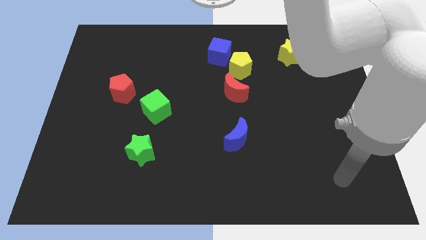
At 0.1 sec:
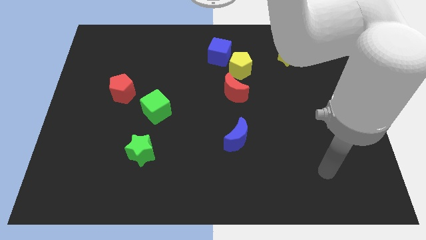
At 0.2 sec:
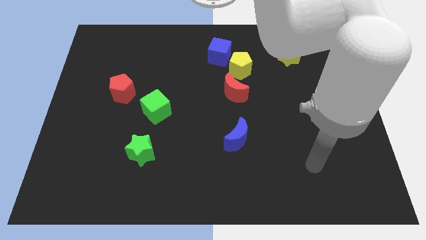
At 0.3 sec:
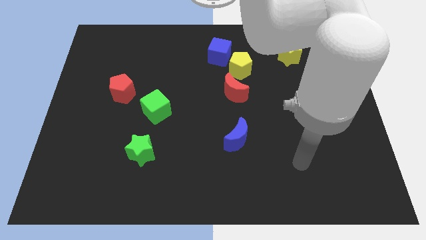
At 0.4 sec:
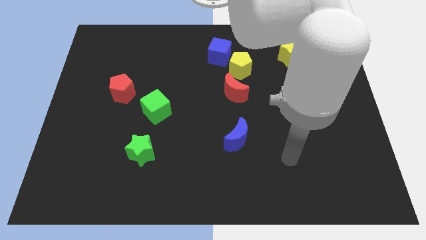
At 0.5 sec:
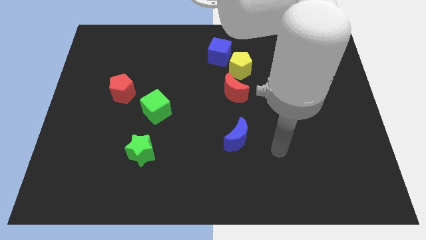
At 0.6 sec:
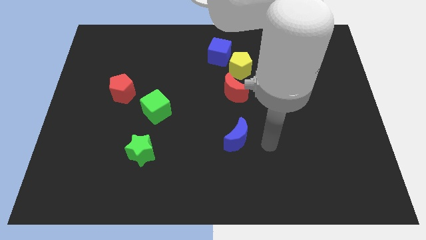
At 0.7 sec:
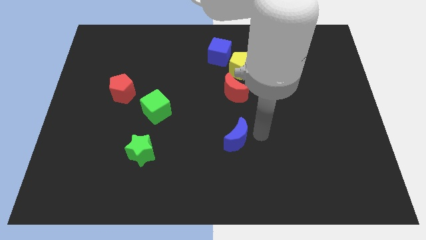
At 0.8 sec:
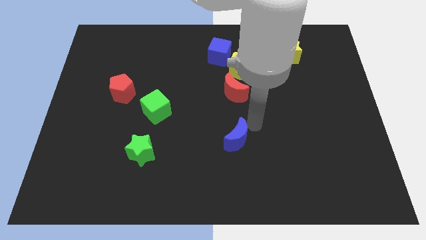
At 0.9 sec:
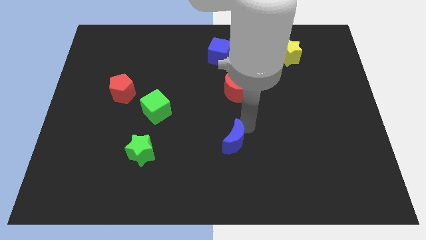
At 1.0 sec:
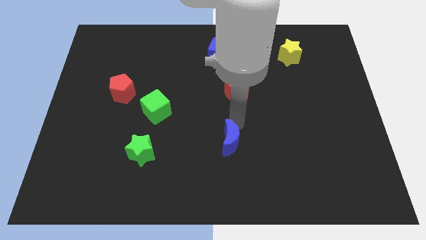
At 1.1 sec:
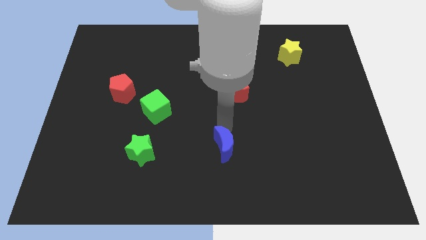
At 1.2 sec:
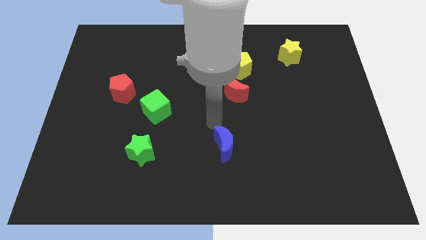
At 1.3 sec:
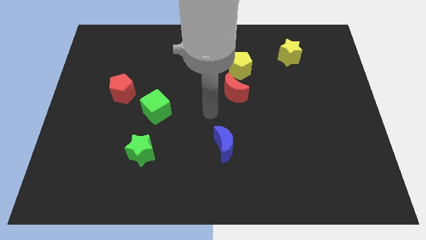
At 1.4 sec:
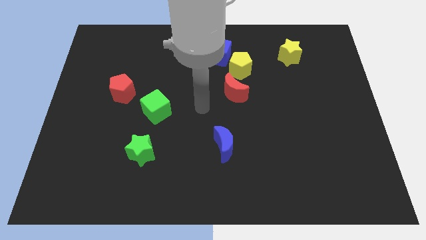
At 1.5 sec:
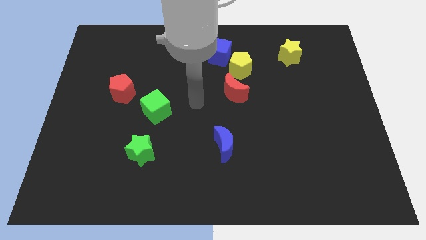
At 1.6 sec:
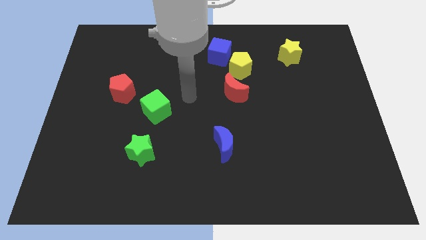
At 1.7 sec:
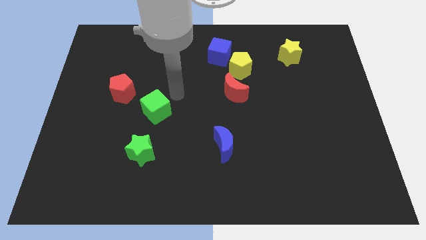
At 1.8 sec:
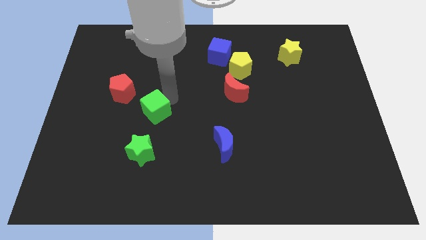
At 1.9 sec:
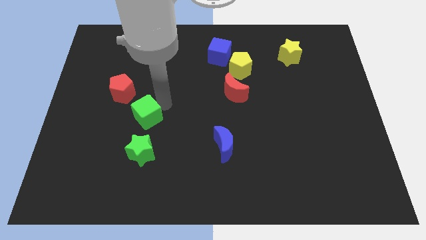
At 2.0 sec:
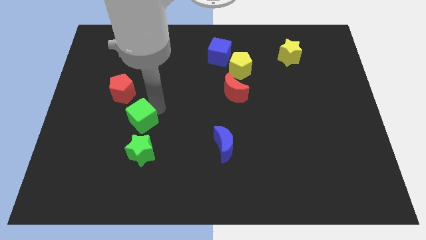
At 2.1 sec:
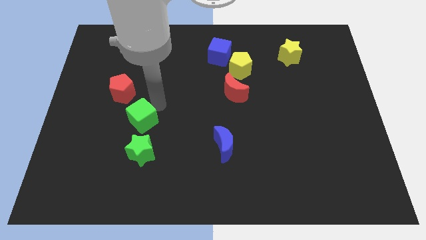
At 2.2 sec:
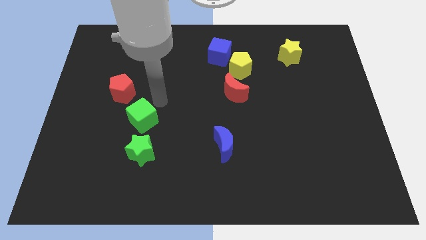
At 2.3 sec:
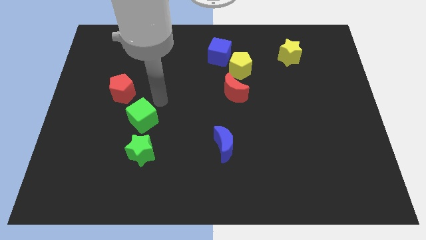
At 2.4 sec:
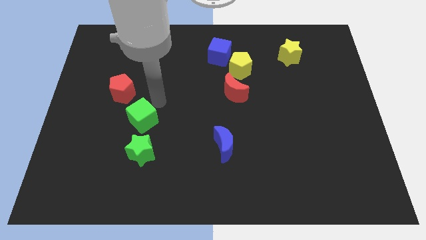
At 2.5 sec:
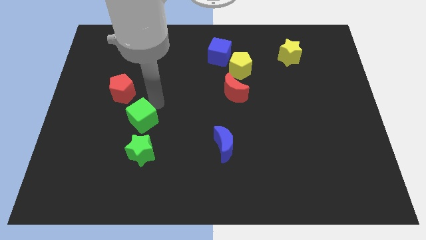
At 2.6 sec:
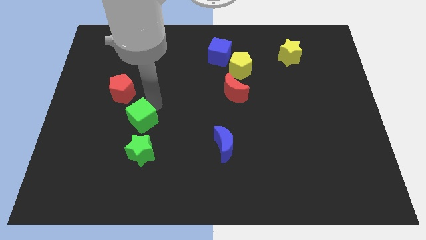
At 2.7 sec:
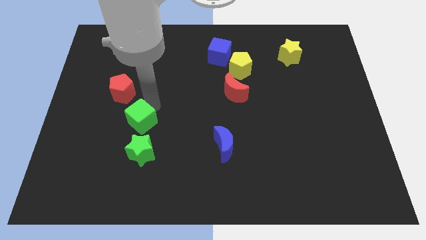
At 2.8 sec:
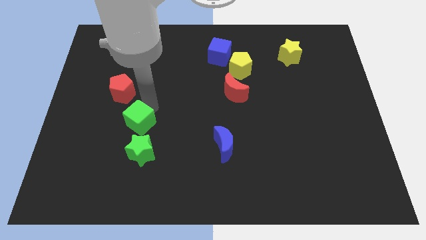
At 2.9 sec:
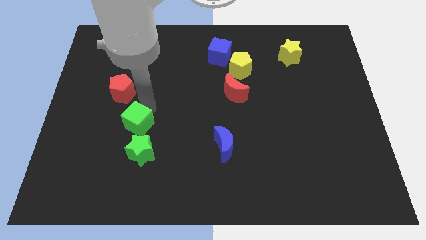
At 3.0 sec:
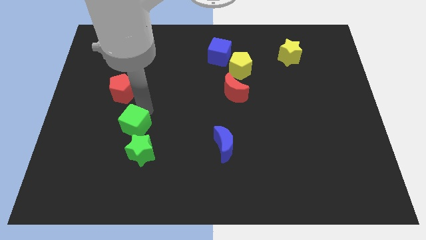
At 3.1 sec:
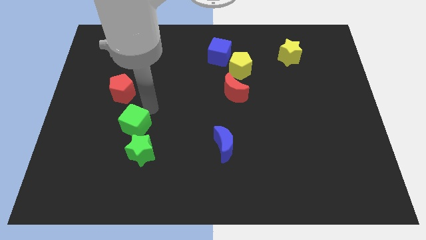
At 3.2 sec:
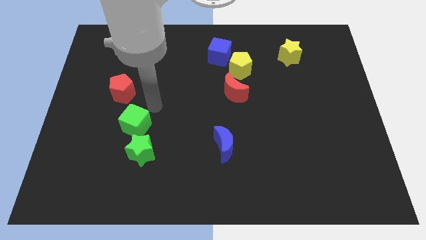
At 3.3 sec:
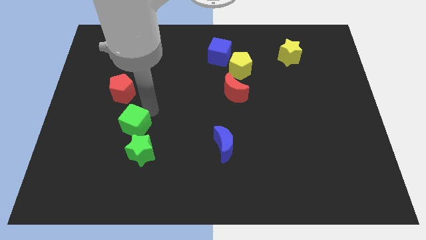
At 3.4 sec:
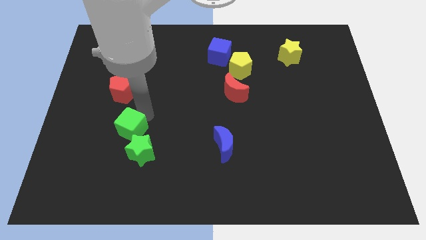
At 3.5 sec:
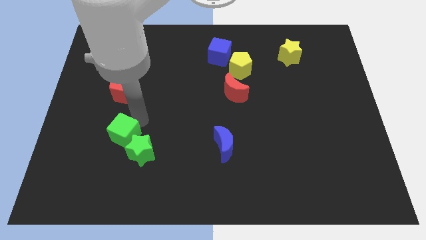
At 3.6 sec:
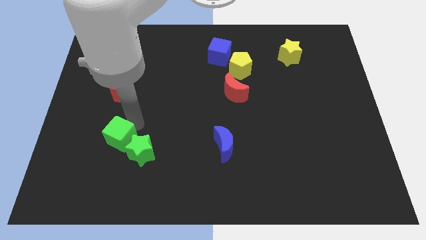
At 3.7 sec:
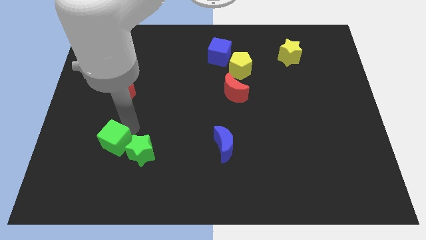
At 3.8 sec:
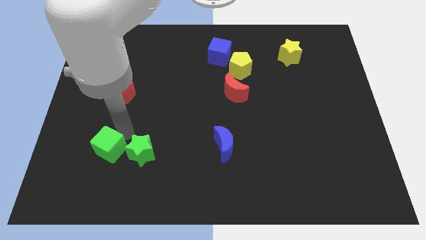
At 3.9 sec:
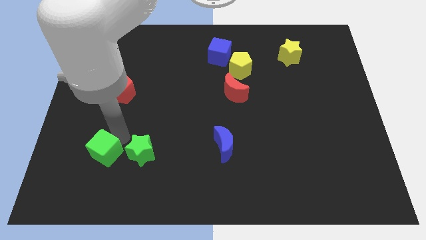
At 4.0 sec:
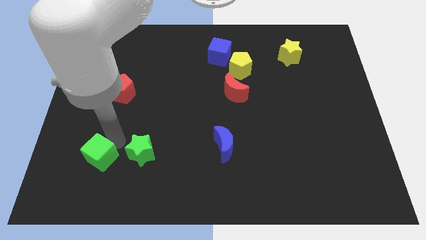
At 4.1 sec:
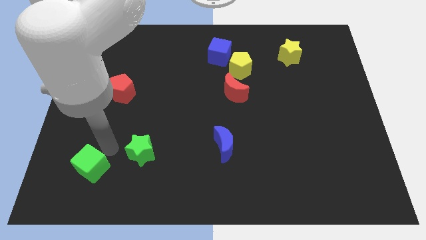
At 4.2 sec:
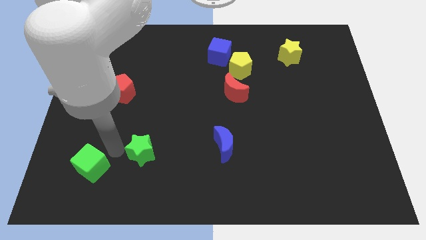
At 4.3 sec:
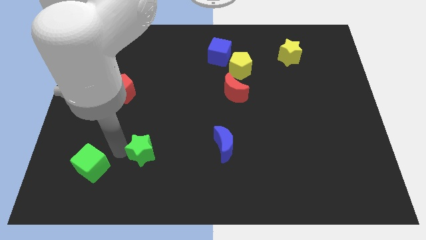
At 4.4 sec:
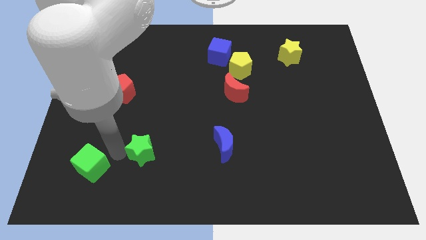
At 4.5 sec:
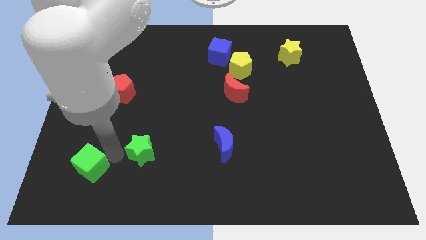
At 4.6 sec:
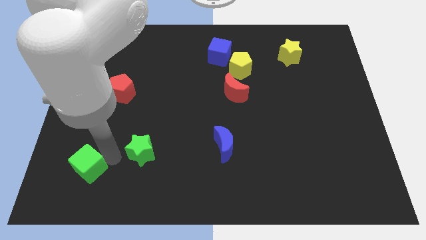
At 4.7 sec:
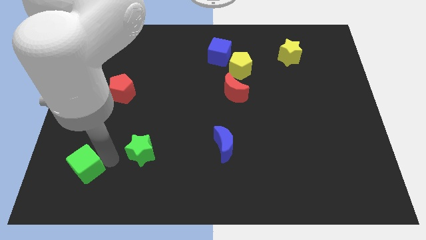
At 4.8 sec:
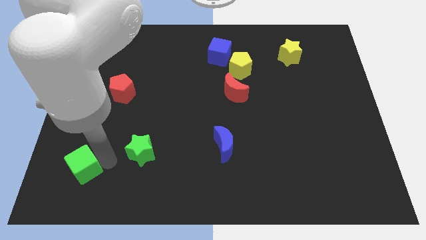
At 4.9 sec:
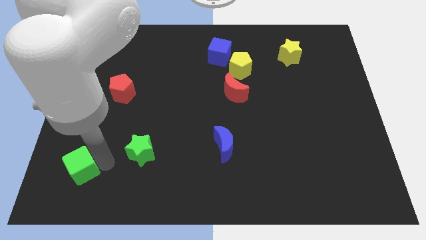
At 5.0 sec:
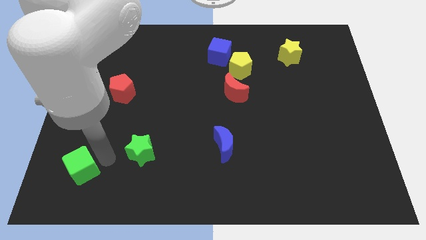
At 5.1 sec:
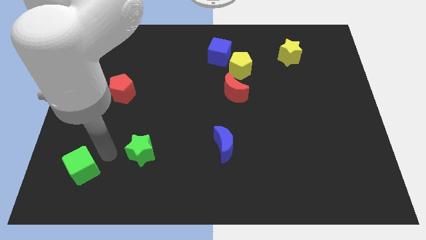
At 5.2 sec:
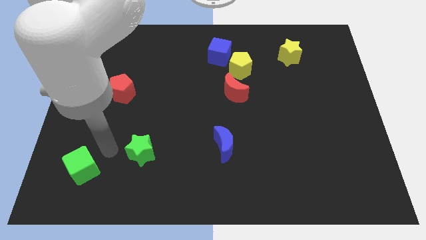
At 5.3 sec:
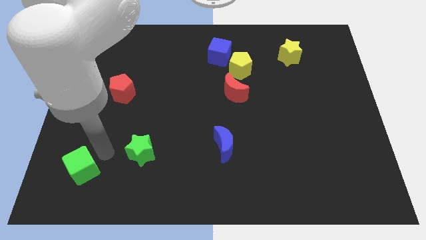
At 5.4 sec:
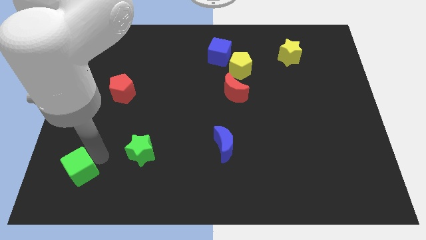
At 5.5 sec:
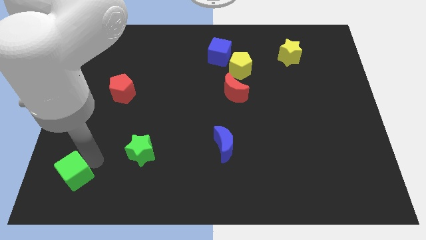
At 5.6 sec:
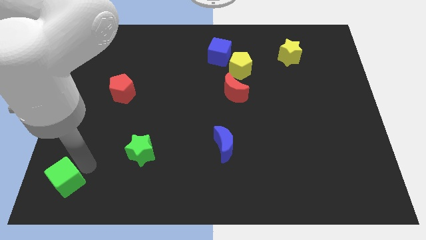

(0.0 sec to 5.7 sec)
push the green cube to the bottom left corner

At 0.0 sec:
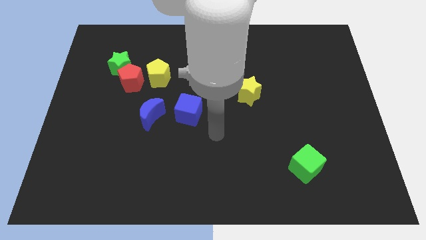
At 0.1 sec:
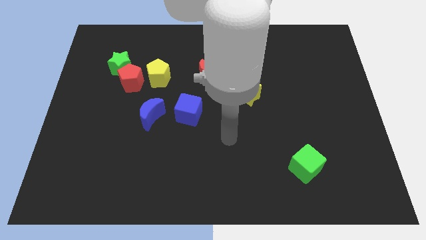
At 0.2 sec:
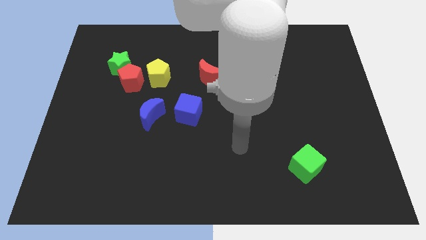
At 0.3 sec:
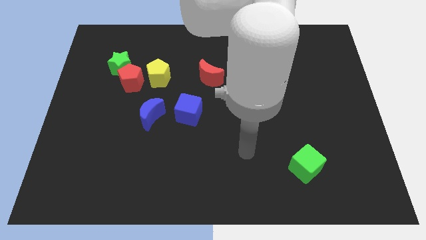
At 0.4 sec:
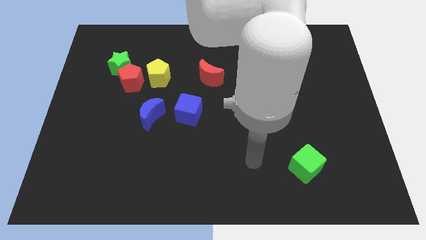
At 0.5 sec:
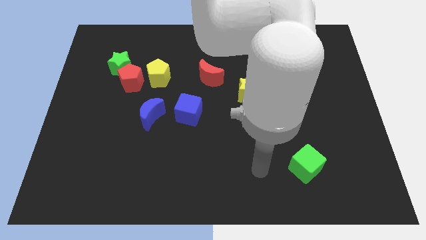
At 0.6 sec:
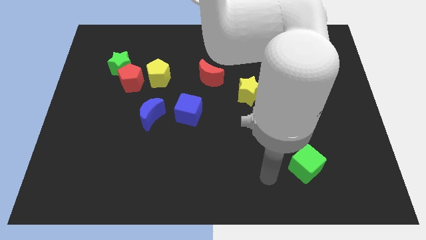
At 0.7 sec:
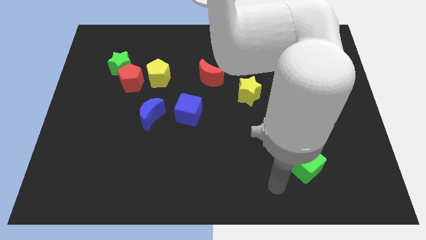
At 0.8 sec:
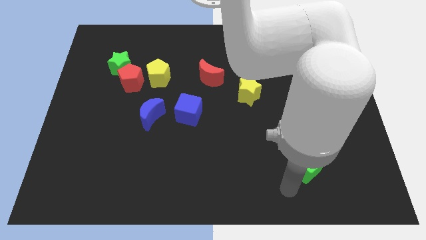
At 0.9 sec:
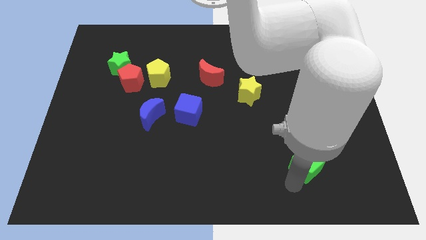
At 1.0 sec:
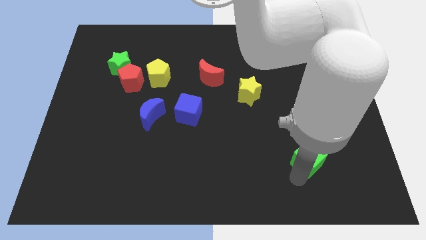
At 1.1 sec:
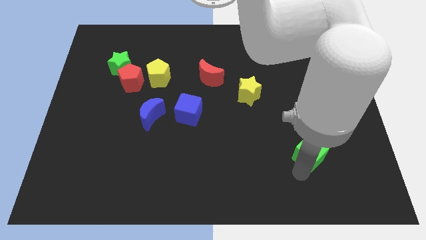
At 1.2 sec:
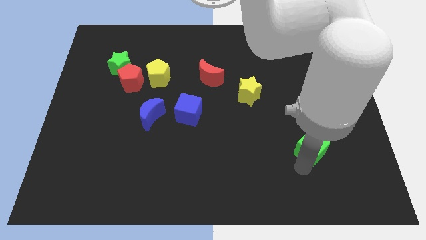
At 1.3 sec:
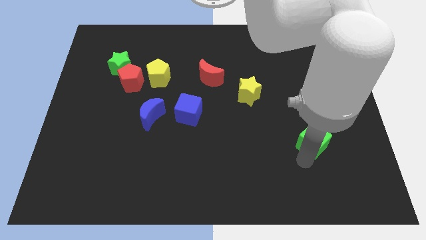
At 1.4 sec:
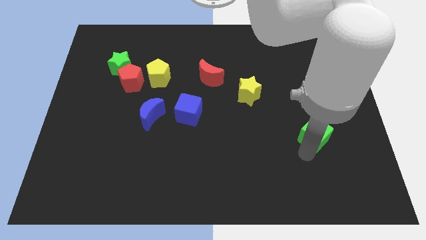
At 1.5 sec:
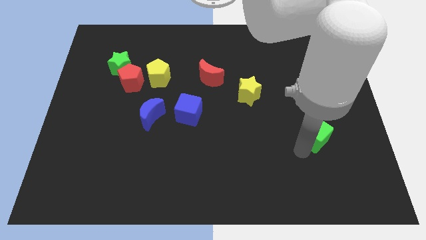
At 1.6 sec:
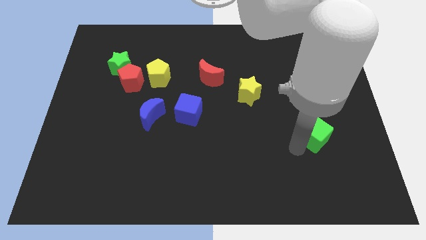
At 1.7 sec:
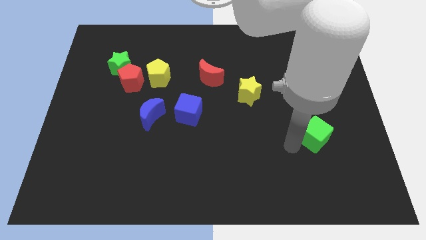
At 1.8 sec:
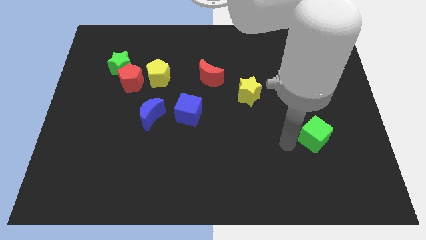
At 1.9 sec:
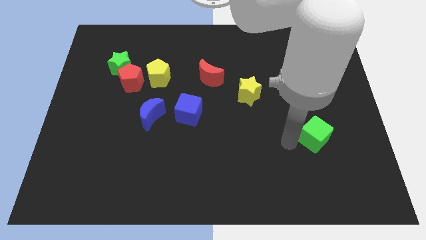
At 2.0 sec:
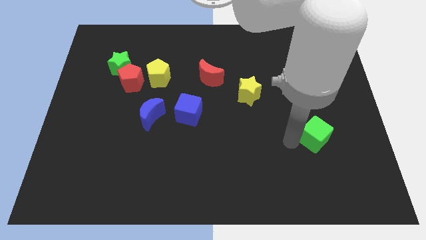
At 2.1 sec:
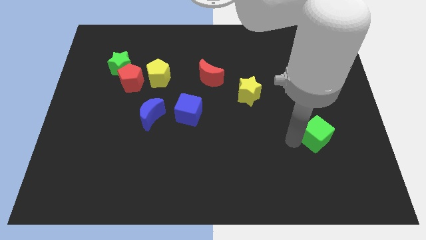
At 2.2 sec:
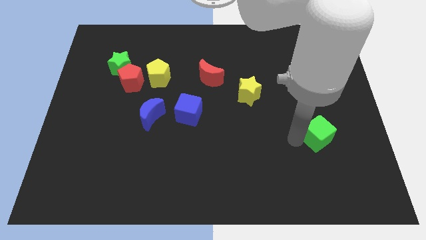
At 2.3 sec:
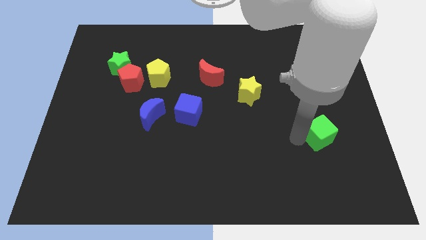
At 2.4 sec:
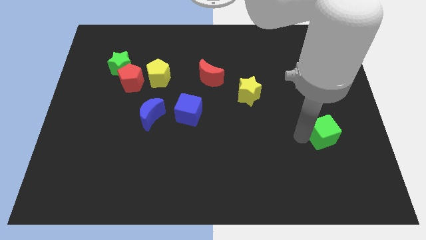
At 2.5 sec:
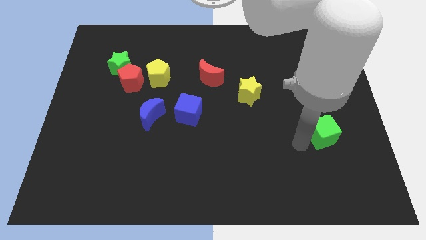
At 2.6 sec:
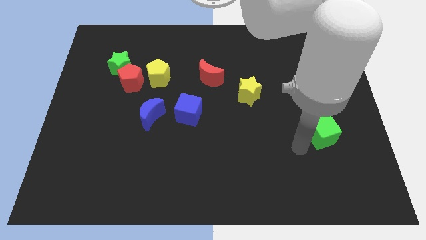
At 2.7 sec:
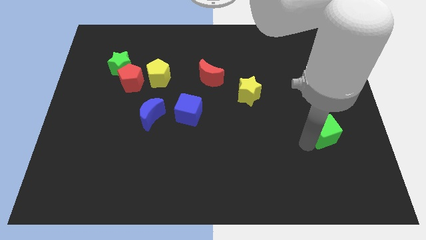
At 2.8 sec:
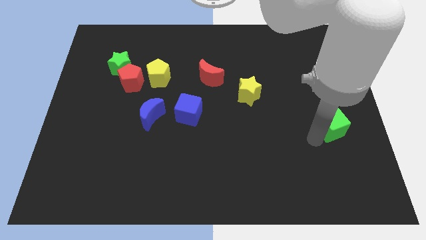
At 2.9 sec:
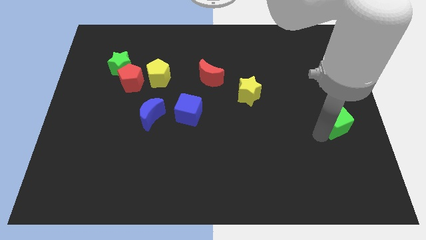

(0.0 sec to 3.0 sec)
put the green cube to the right side of the board
